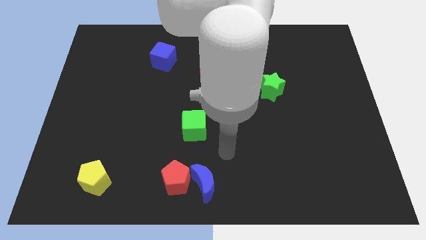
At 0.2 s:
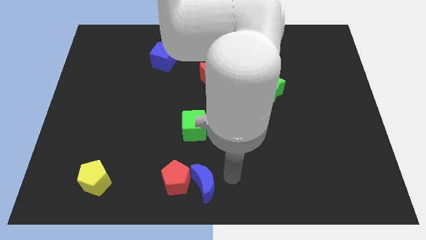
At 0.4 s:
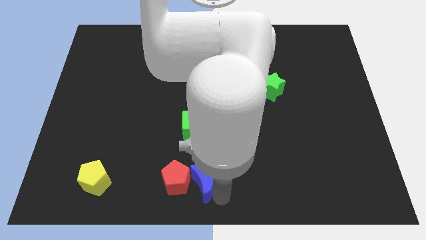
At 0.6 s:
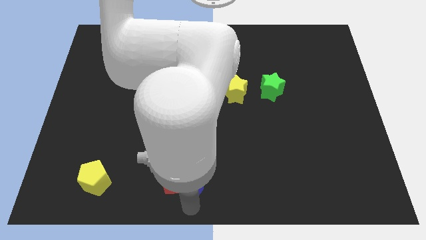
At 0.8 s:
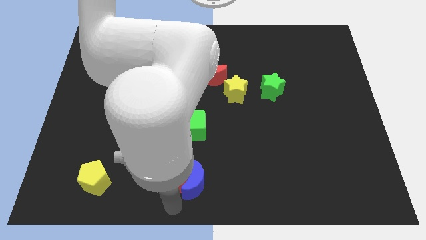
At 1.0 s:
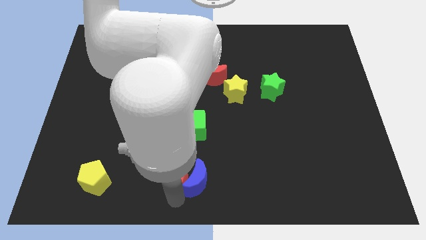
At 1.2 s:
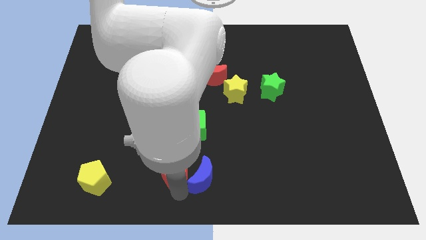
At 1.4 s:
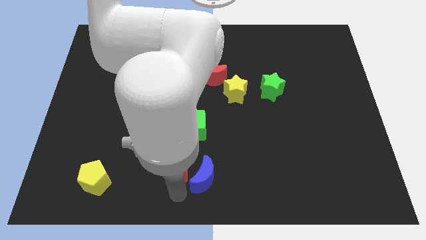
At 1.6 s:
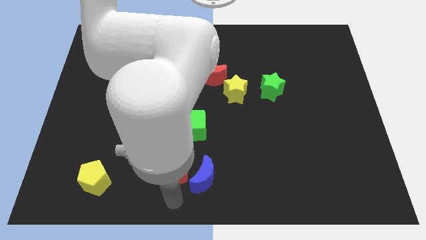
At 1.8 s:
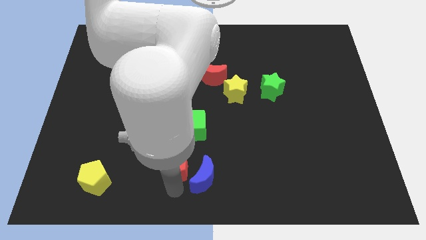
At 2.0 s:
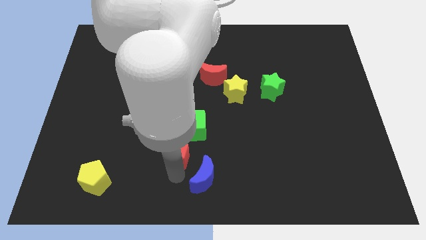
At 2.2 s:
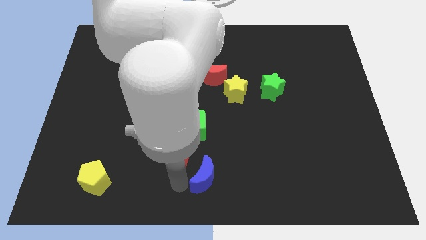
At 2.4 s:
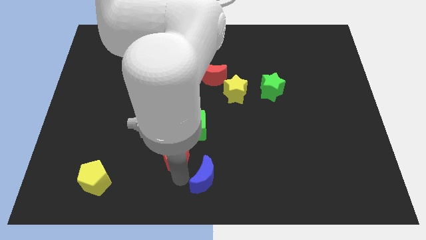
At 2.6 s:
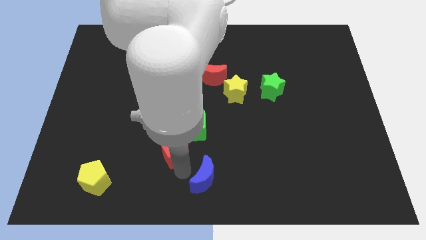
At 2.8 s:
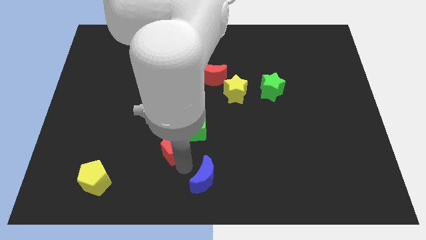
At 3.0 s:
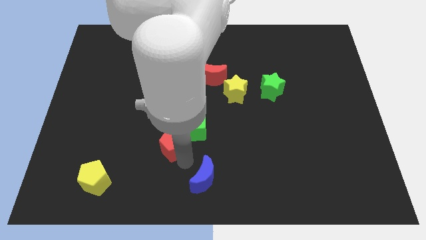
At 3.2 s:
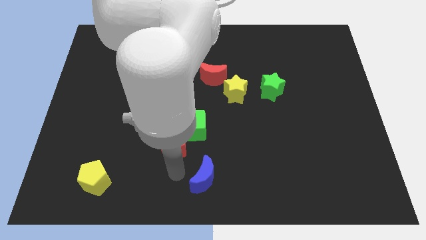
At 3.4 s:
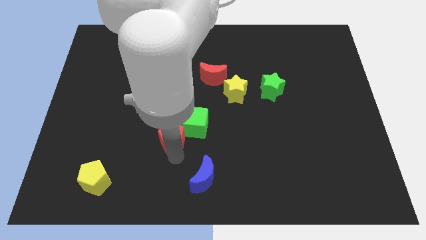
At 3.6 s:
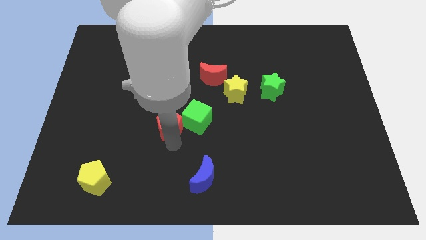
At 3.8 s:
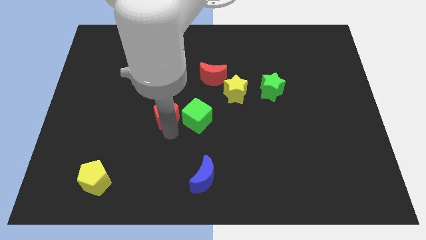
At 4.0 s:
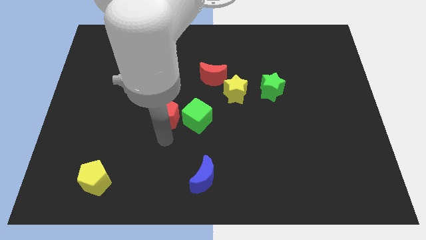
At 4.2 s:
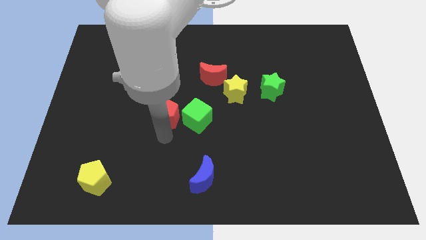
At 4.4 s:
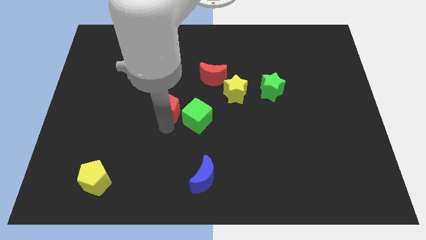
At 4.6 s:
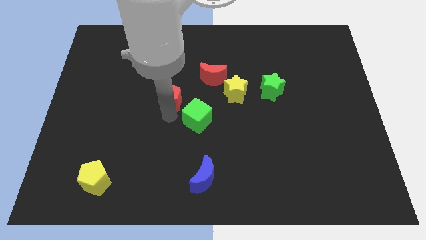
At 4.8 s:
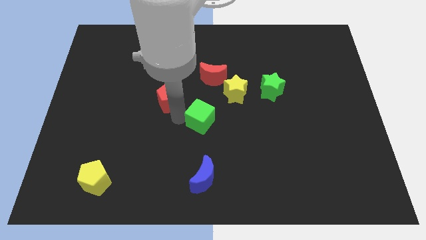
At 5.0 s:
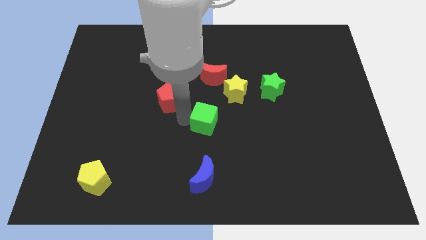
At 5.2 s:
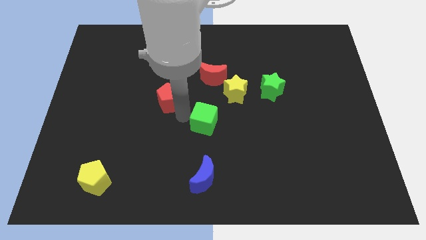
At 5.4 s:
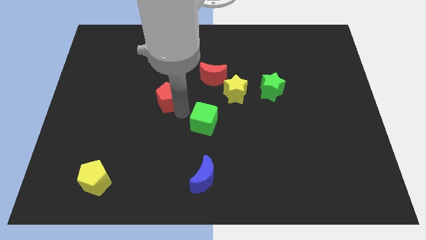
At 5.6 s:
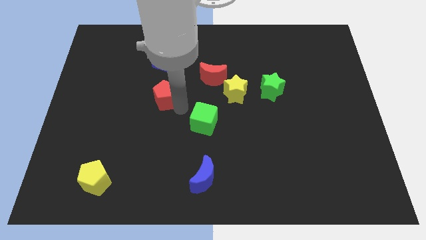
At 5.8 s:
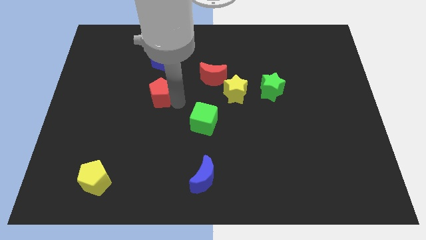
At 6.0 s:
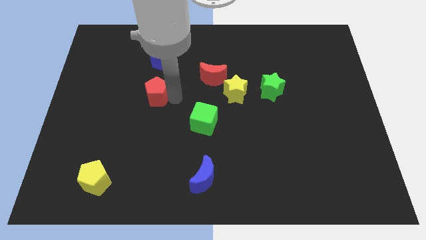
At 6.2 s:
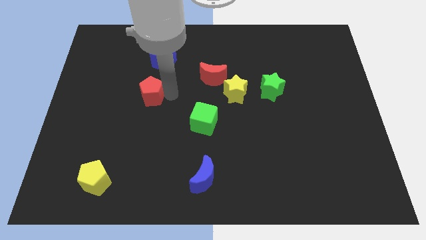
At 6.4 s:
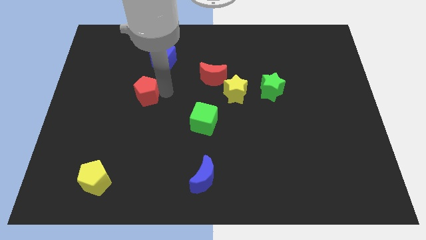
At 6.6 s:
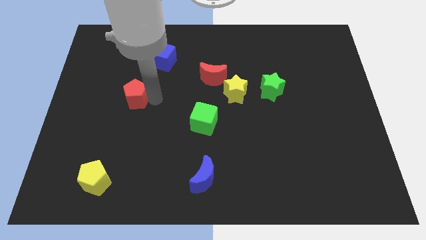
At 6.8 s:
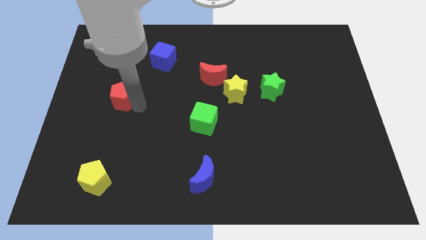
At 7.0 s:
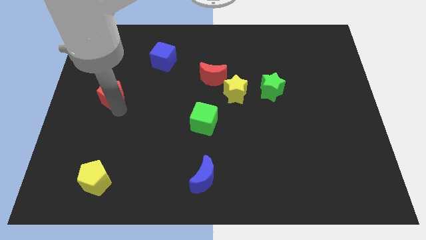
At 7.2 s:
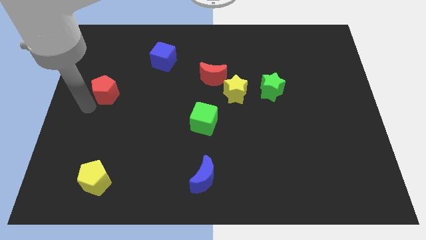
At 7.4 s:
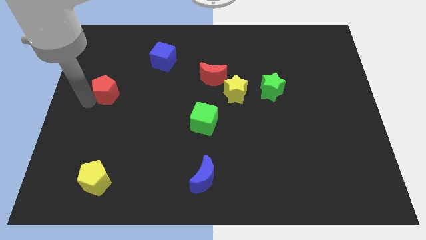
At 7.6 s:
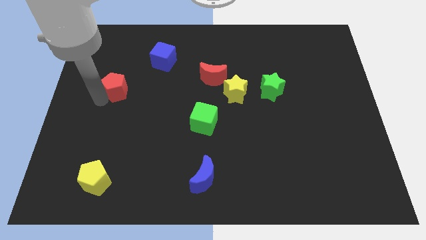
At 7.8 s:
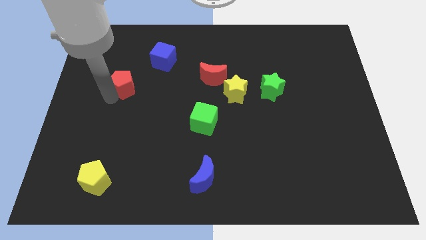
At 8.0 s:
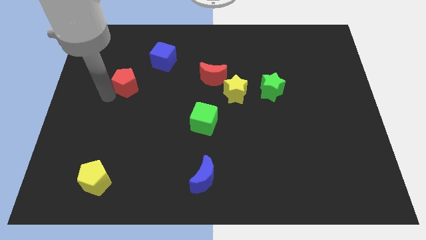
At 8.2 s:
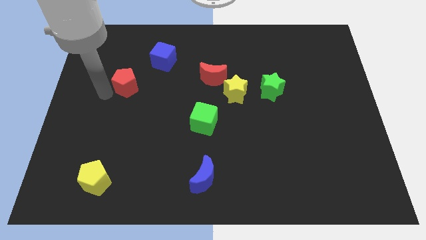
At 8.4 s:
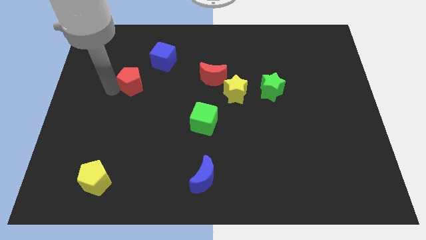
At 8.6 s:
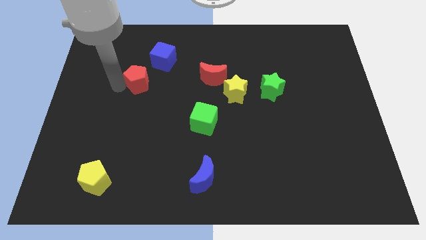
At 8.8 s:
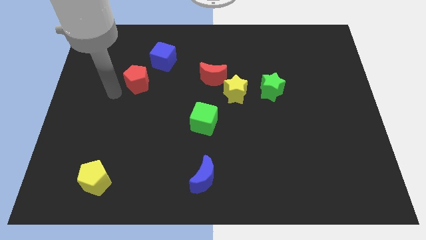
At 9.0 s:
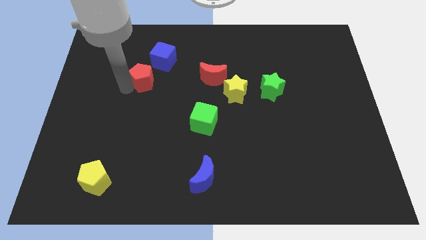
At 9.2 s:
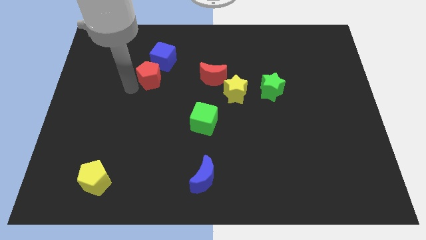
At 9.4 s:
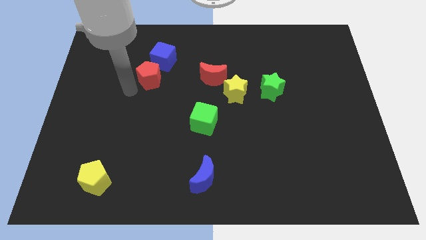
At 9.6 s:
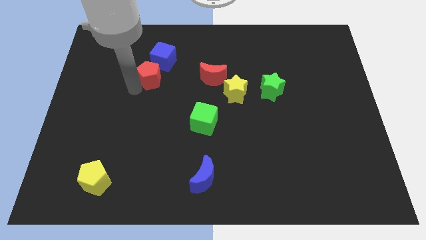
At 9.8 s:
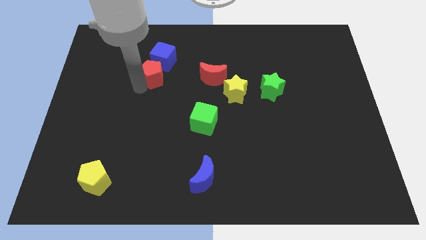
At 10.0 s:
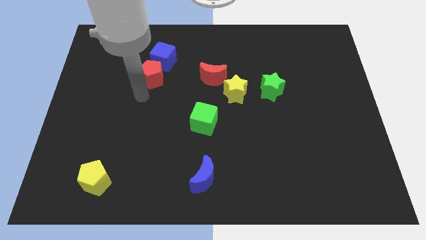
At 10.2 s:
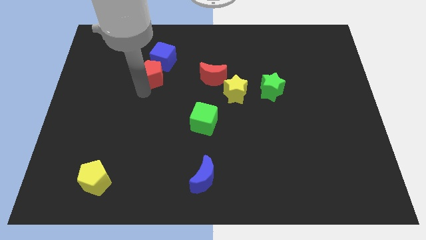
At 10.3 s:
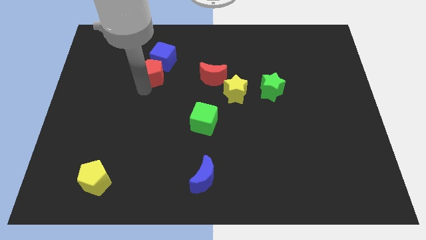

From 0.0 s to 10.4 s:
push the red pentagon to the blue cube

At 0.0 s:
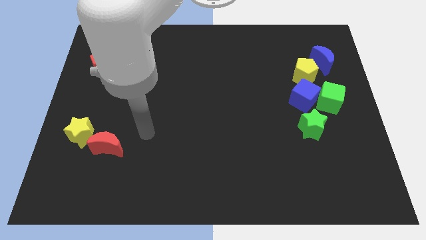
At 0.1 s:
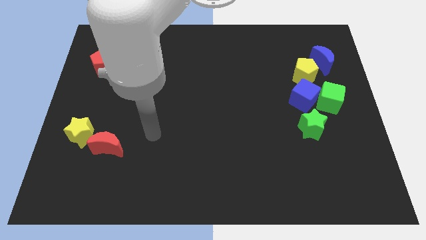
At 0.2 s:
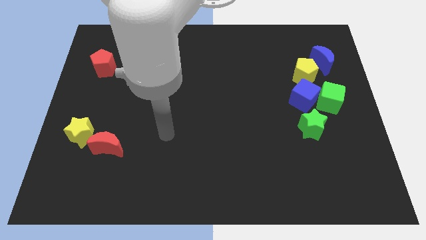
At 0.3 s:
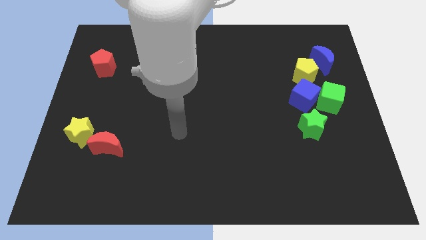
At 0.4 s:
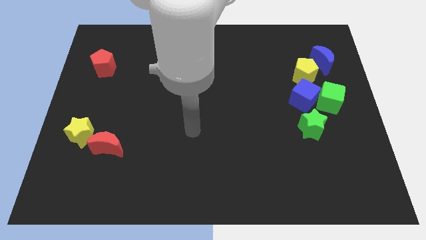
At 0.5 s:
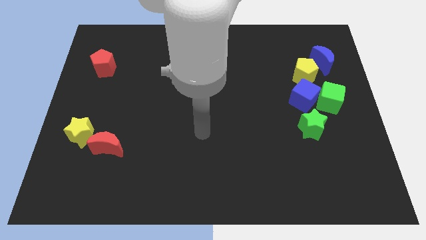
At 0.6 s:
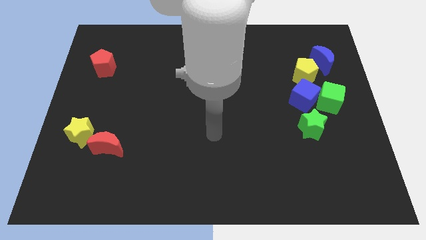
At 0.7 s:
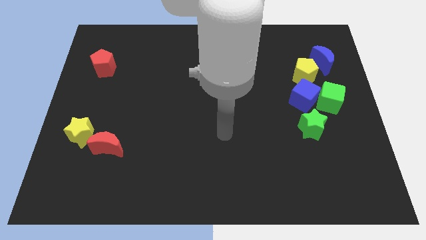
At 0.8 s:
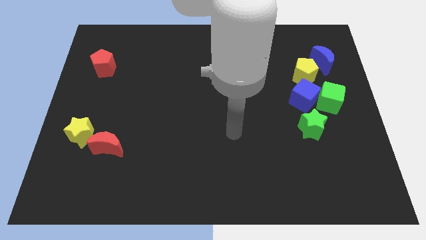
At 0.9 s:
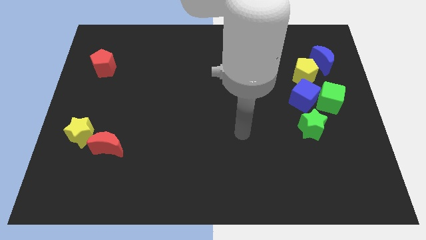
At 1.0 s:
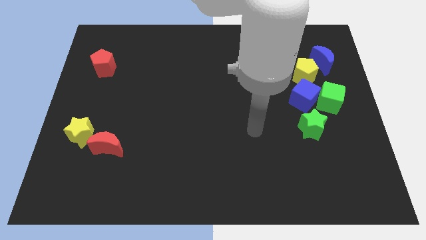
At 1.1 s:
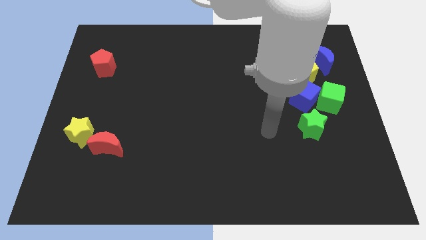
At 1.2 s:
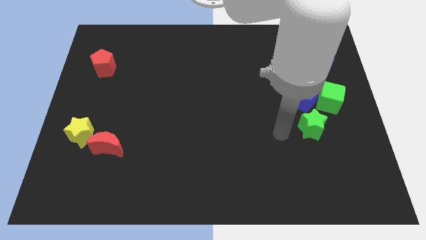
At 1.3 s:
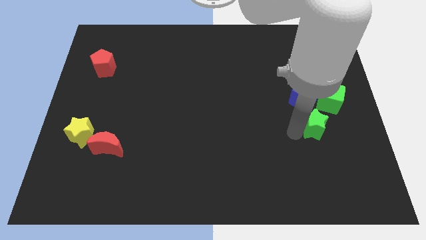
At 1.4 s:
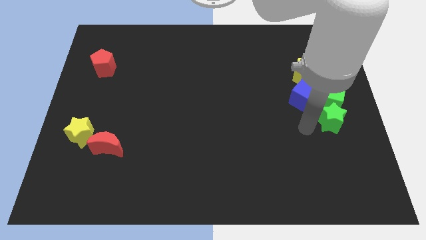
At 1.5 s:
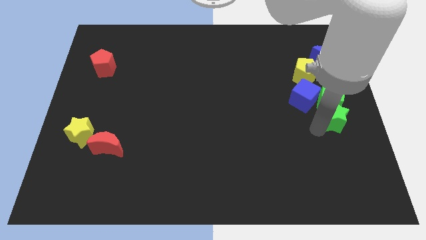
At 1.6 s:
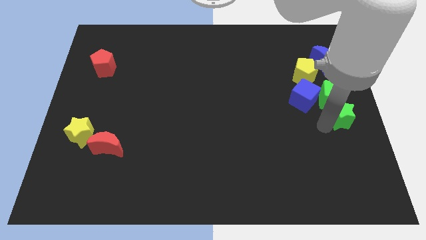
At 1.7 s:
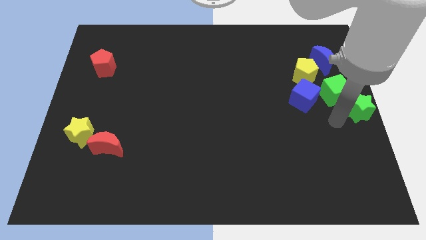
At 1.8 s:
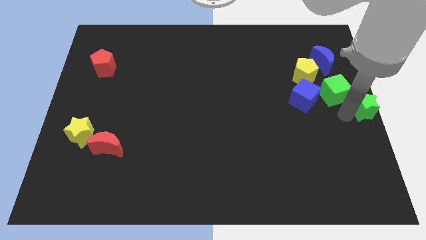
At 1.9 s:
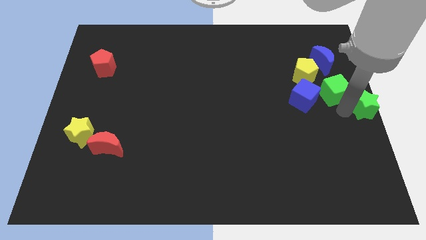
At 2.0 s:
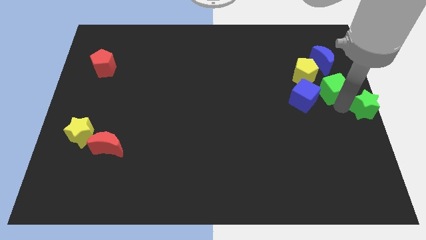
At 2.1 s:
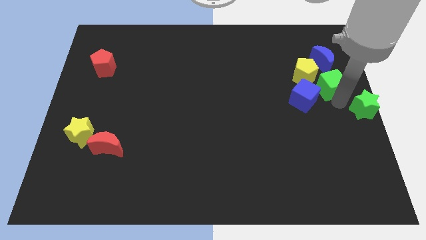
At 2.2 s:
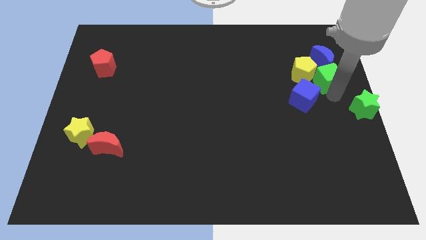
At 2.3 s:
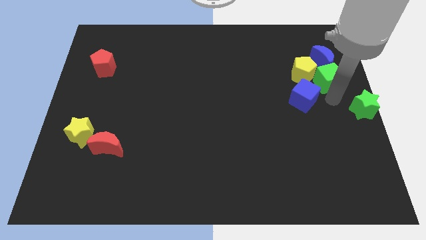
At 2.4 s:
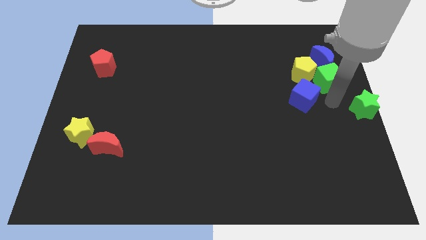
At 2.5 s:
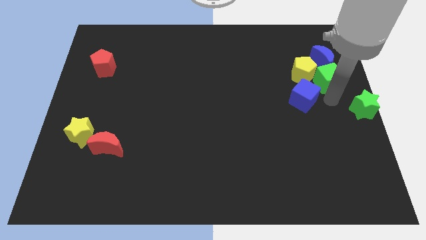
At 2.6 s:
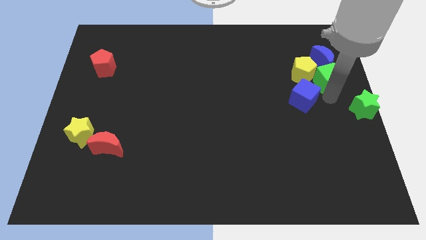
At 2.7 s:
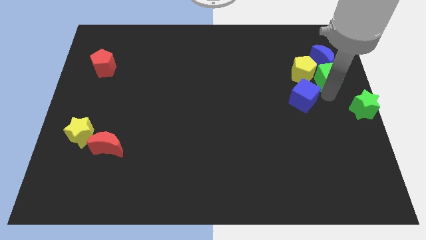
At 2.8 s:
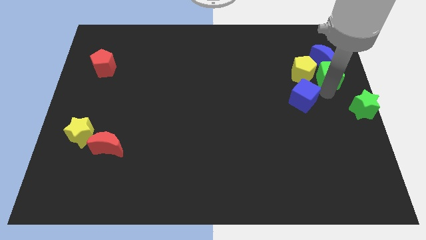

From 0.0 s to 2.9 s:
push the green cube to the blue moon
